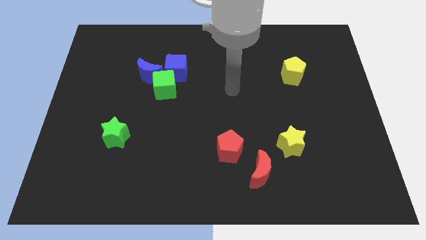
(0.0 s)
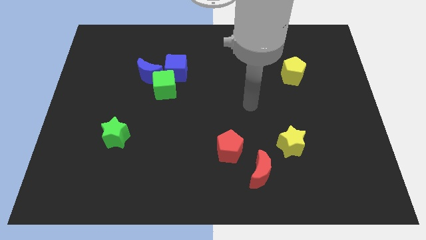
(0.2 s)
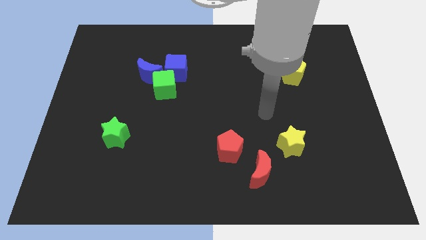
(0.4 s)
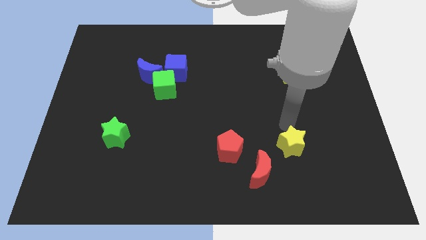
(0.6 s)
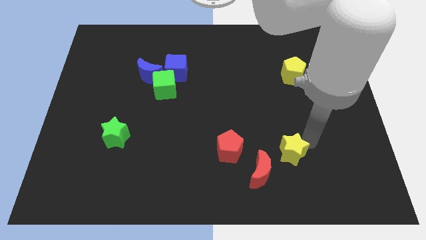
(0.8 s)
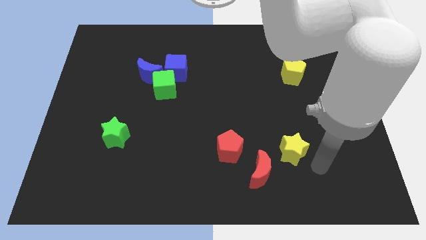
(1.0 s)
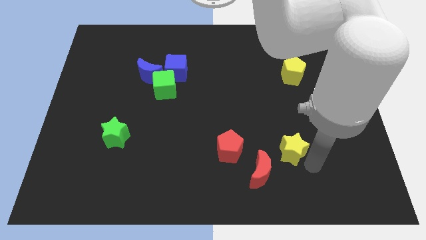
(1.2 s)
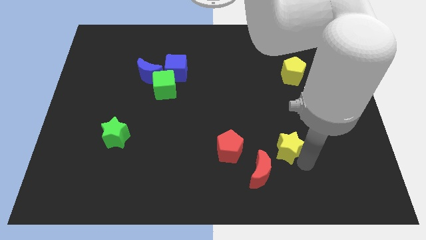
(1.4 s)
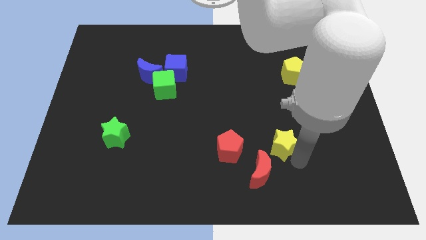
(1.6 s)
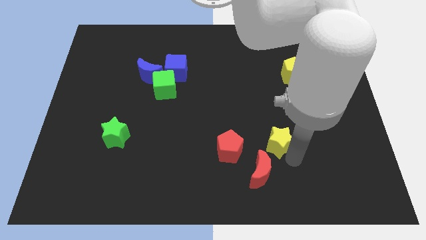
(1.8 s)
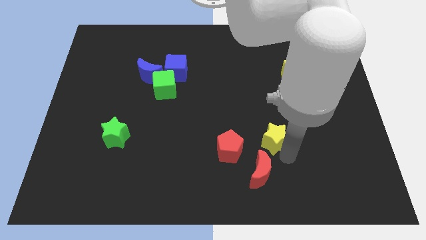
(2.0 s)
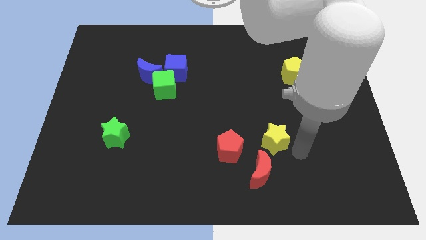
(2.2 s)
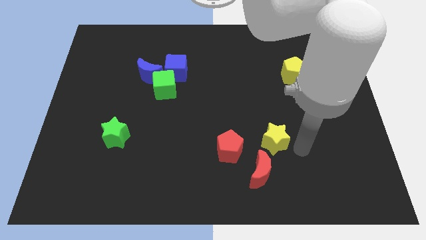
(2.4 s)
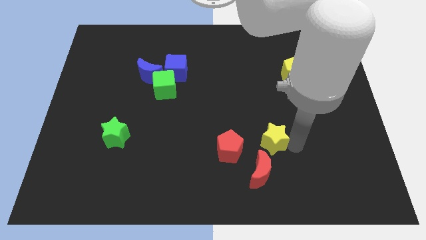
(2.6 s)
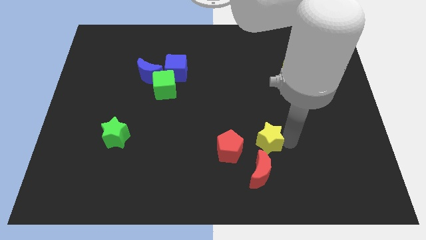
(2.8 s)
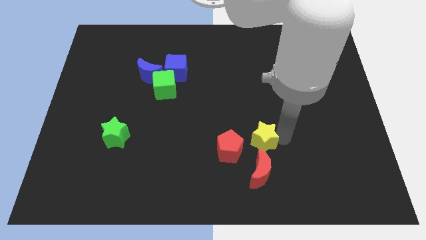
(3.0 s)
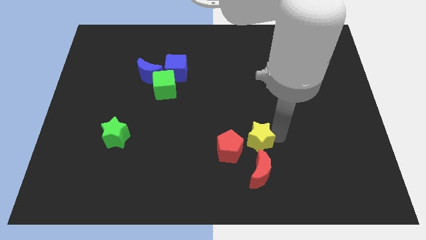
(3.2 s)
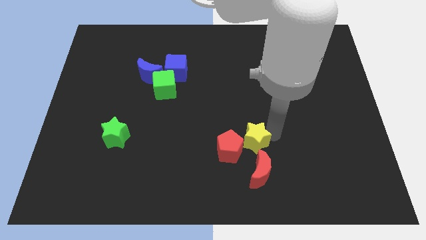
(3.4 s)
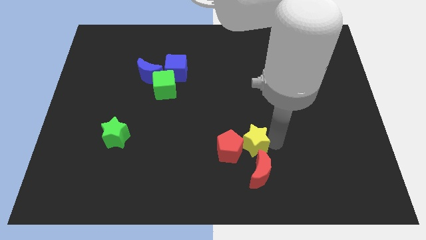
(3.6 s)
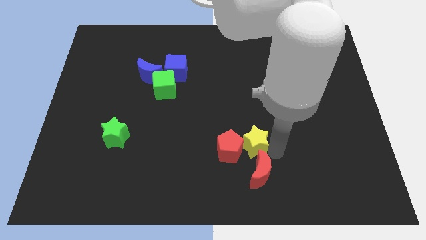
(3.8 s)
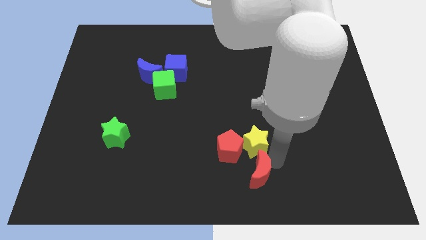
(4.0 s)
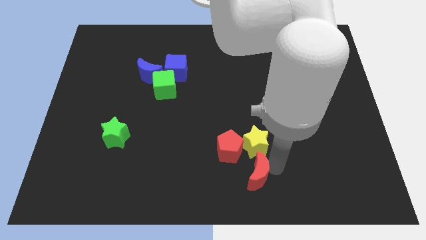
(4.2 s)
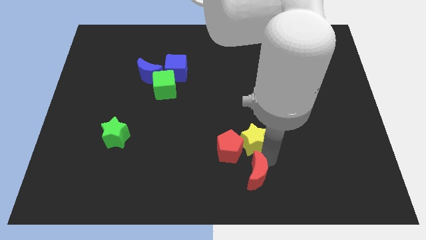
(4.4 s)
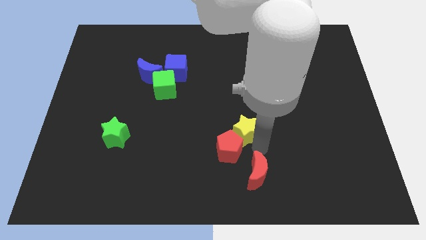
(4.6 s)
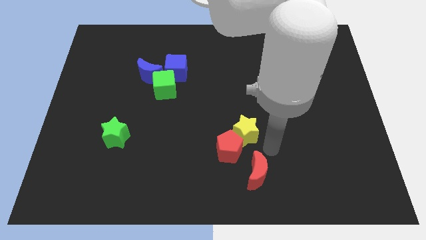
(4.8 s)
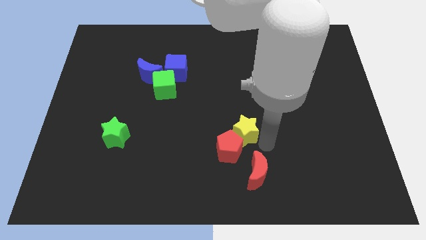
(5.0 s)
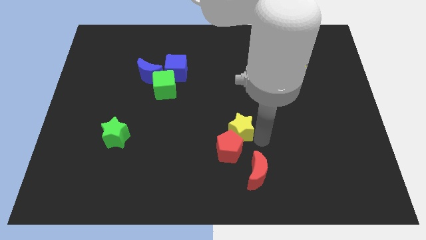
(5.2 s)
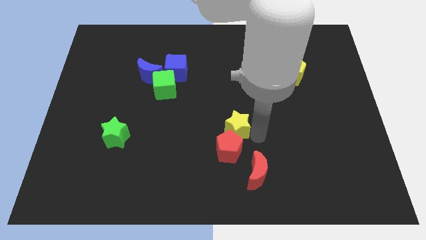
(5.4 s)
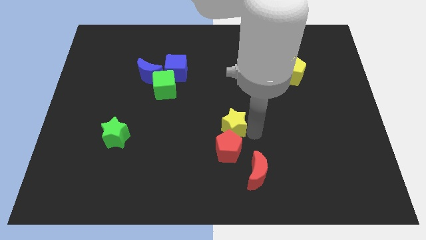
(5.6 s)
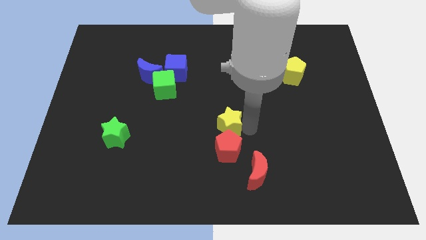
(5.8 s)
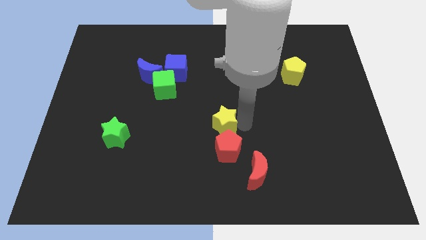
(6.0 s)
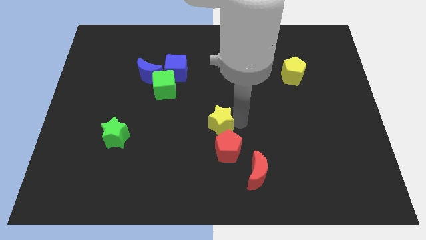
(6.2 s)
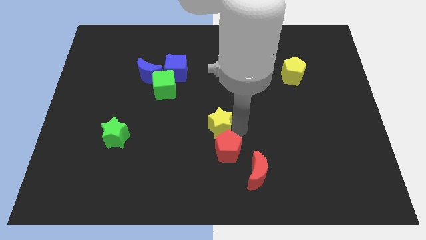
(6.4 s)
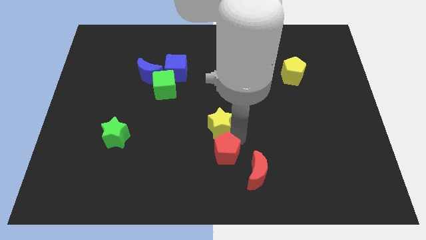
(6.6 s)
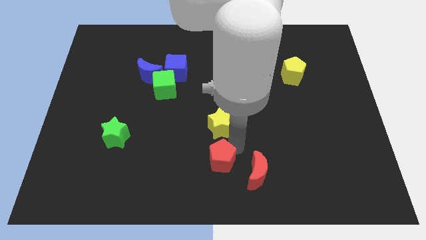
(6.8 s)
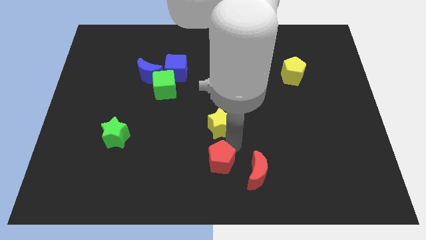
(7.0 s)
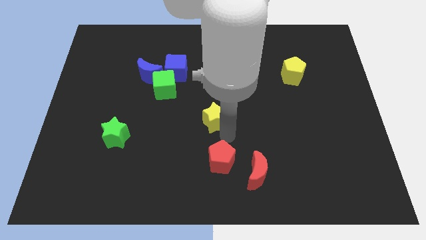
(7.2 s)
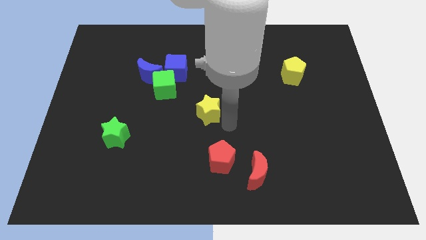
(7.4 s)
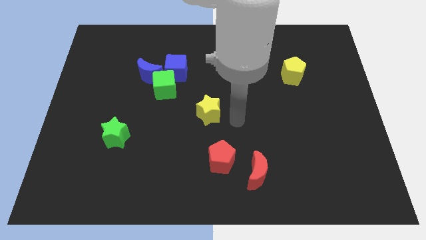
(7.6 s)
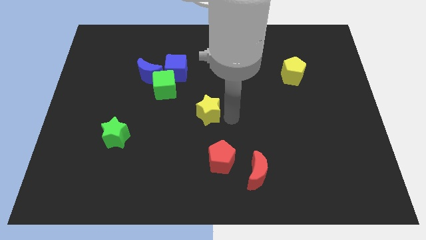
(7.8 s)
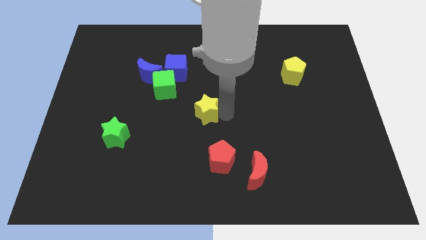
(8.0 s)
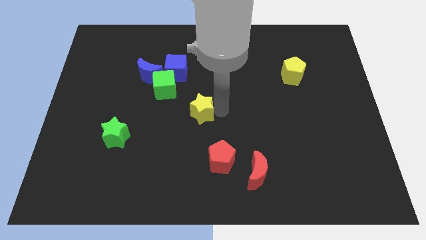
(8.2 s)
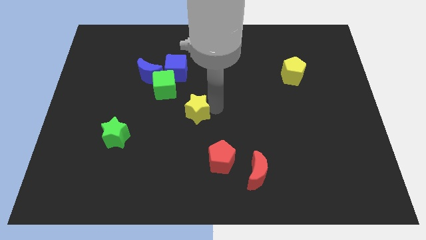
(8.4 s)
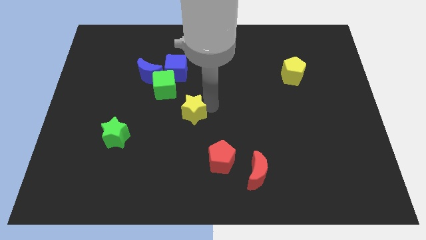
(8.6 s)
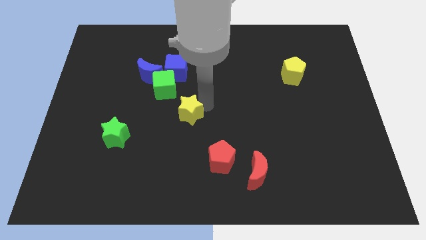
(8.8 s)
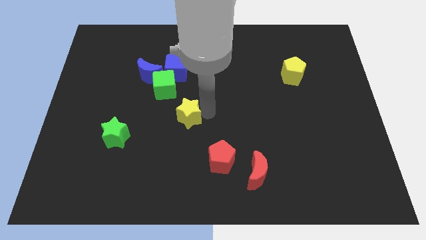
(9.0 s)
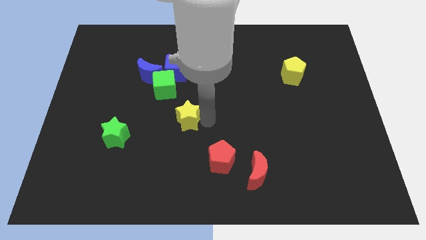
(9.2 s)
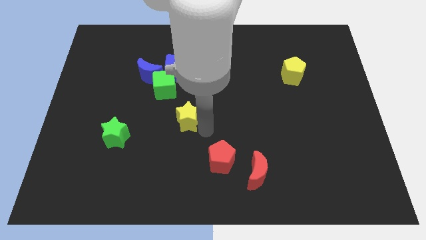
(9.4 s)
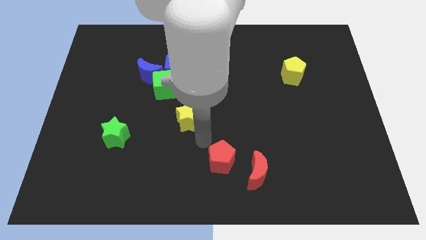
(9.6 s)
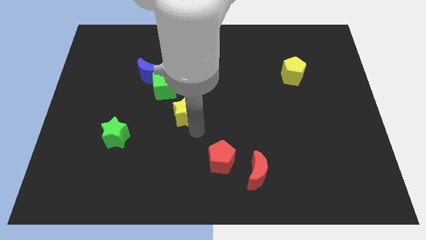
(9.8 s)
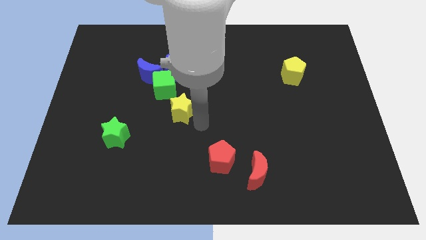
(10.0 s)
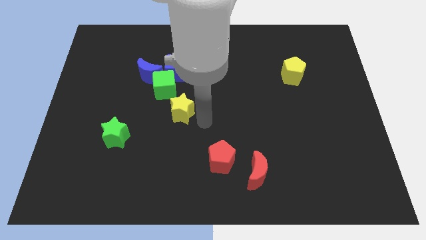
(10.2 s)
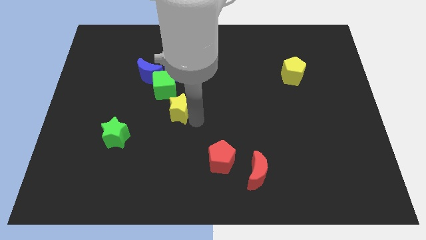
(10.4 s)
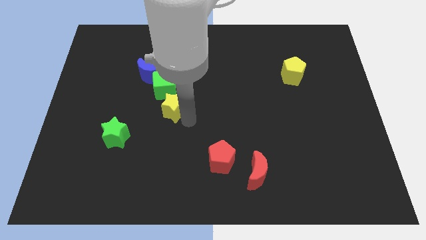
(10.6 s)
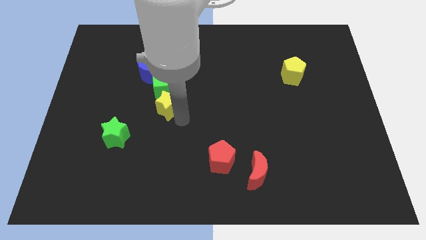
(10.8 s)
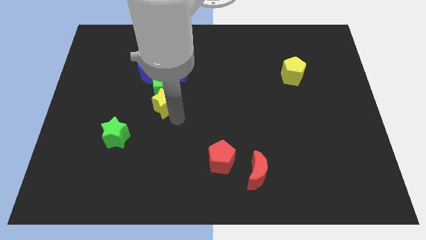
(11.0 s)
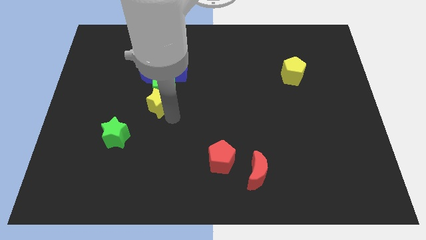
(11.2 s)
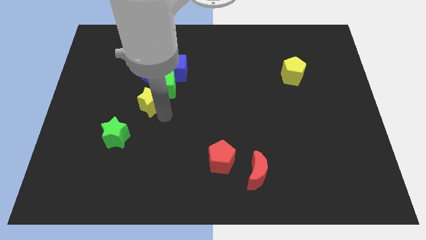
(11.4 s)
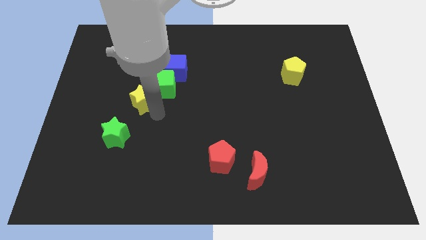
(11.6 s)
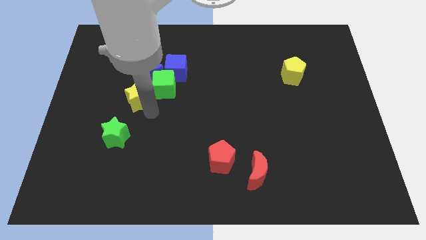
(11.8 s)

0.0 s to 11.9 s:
push the yellow star diagonally down and to the left of the blue moon
